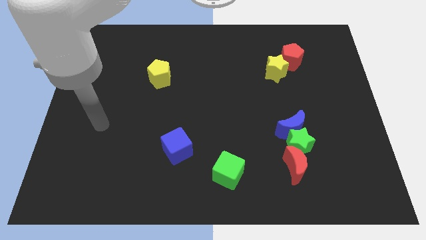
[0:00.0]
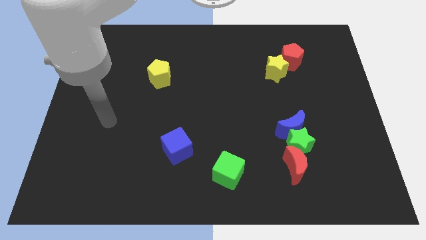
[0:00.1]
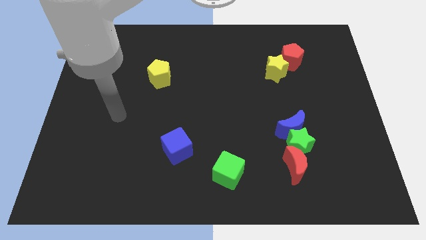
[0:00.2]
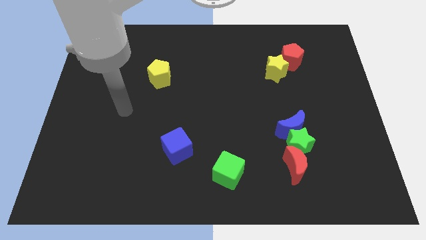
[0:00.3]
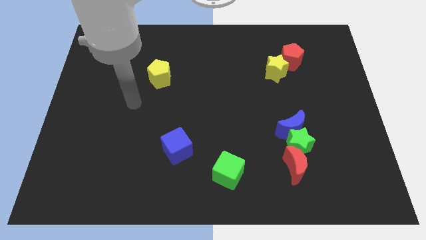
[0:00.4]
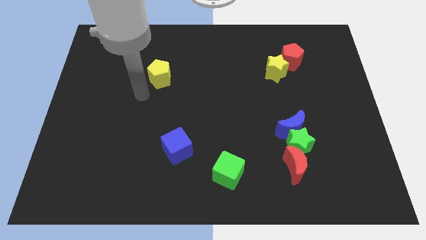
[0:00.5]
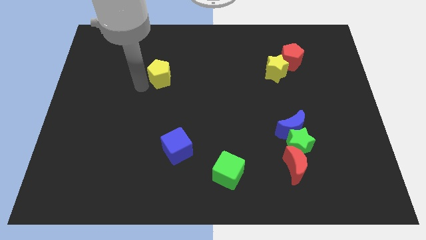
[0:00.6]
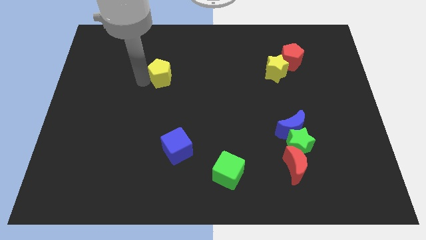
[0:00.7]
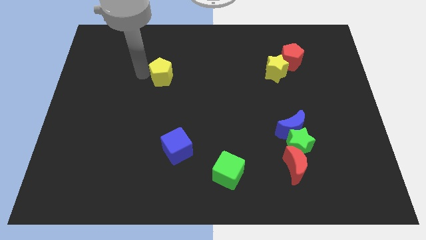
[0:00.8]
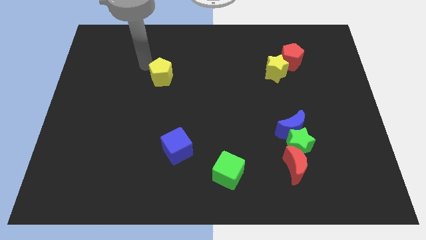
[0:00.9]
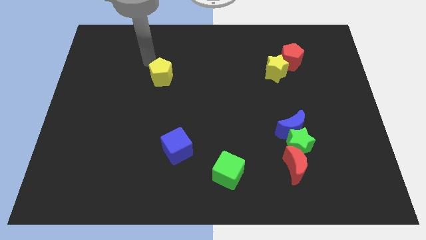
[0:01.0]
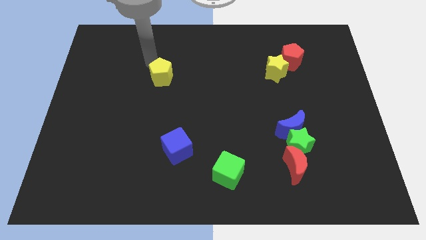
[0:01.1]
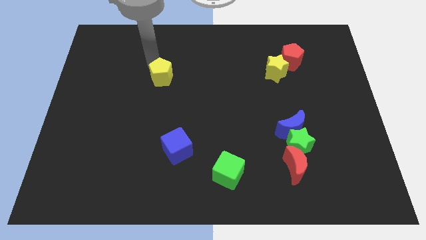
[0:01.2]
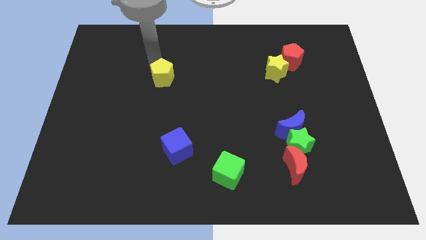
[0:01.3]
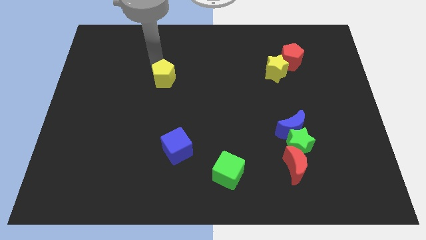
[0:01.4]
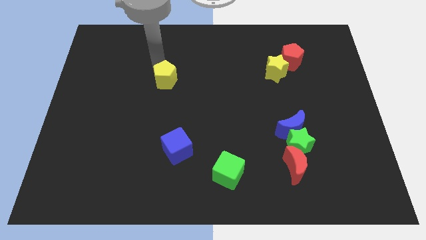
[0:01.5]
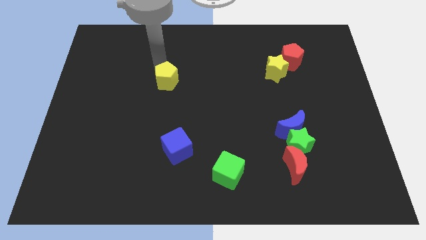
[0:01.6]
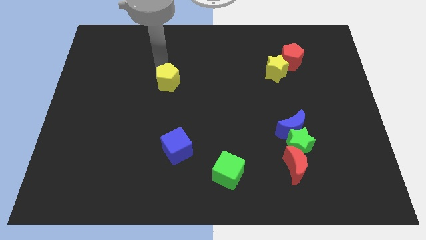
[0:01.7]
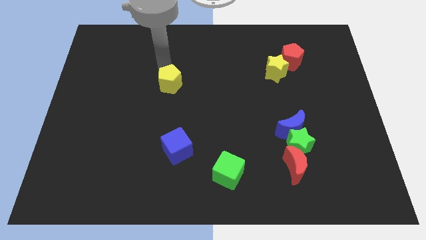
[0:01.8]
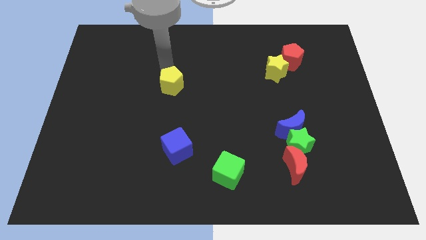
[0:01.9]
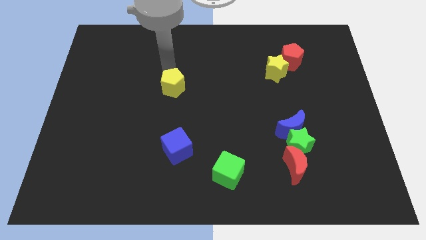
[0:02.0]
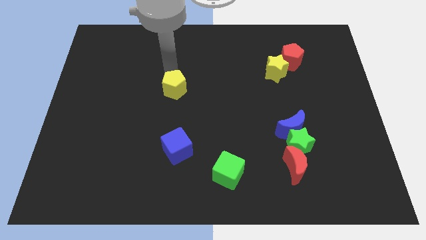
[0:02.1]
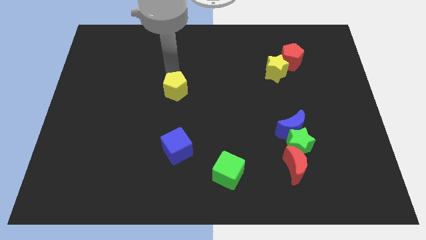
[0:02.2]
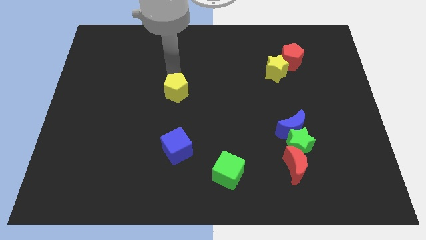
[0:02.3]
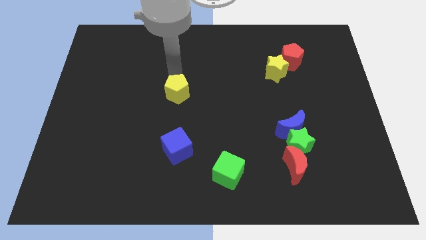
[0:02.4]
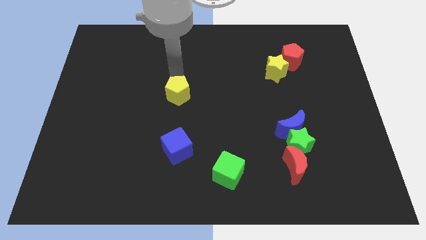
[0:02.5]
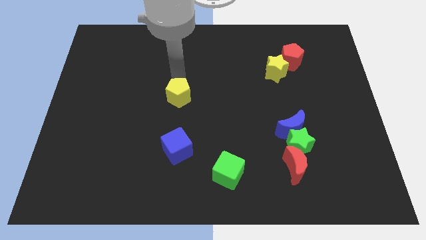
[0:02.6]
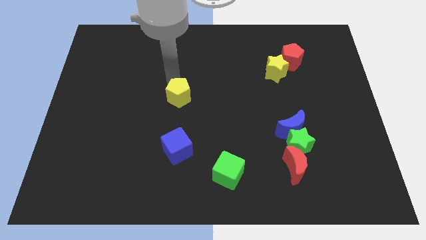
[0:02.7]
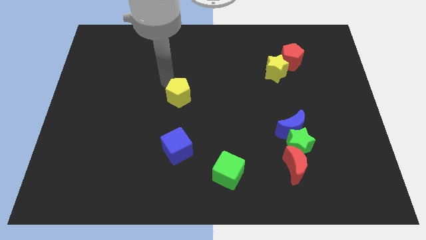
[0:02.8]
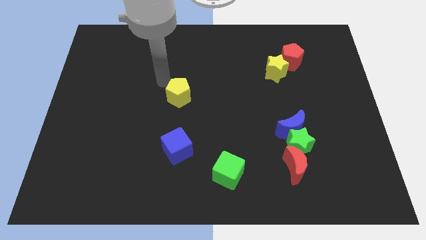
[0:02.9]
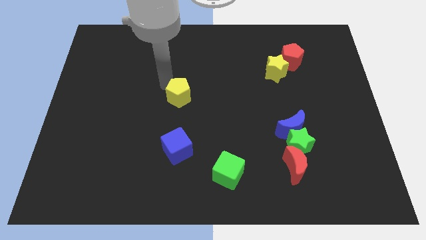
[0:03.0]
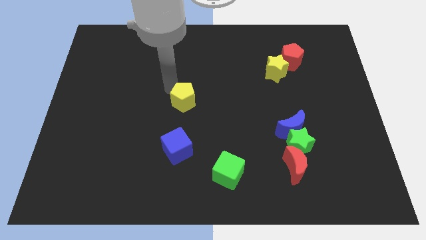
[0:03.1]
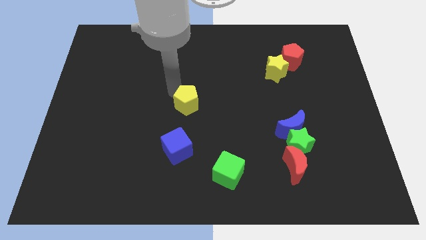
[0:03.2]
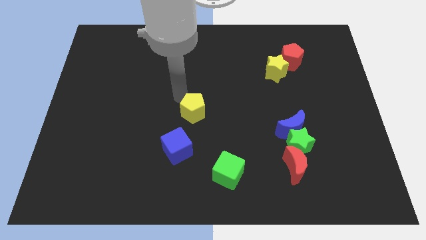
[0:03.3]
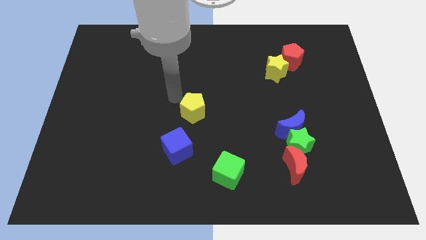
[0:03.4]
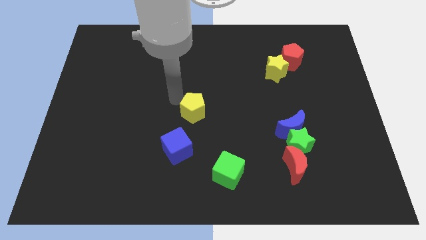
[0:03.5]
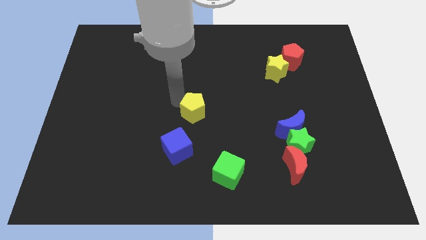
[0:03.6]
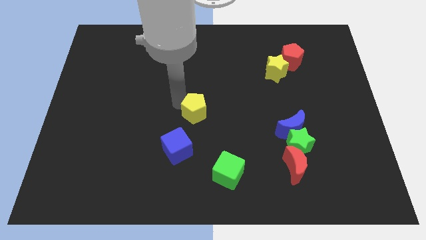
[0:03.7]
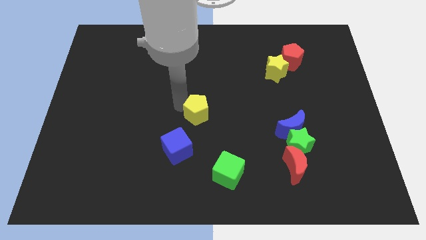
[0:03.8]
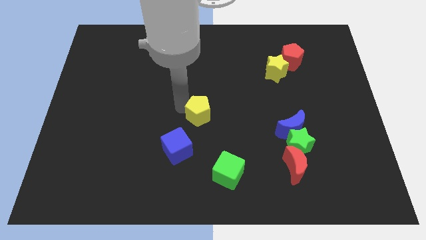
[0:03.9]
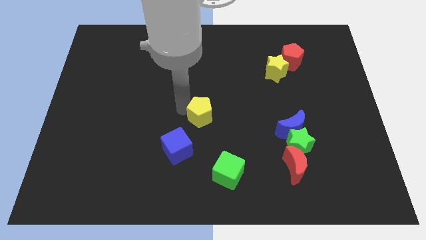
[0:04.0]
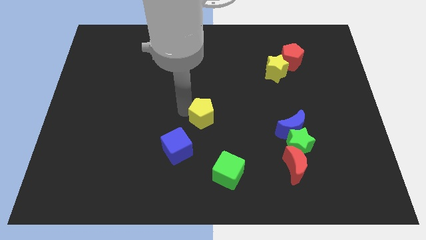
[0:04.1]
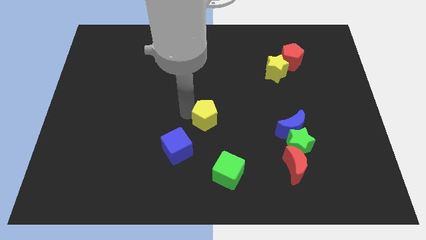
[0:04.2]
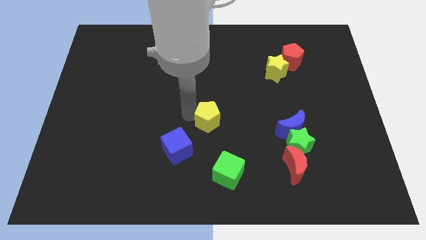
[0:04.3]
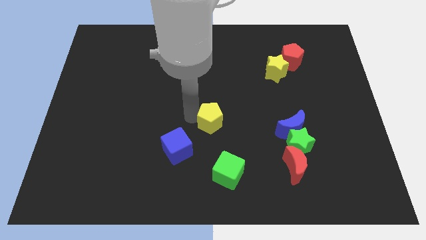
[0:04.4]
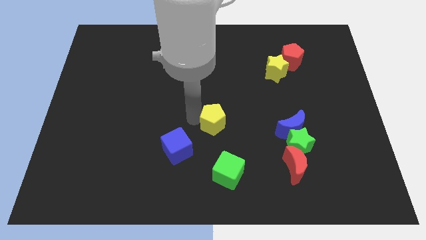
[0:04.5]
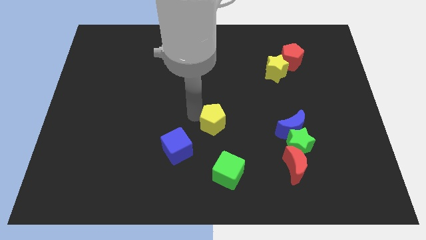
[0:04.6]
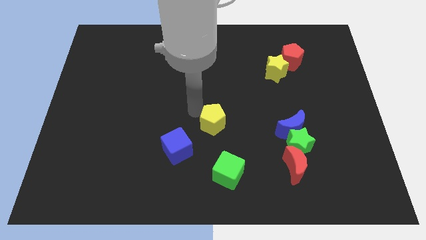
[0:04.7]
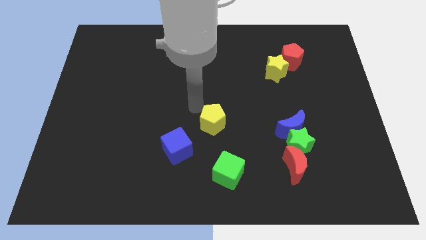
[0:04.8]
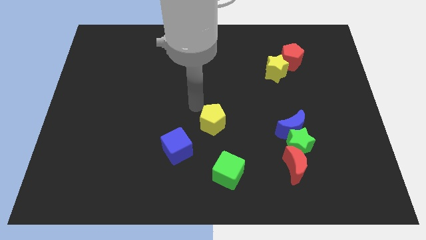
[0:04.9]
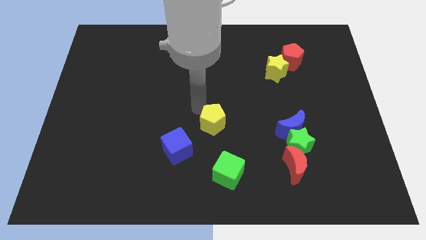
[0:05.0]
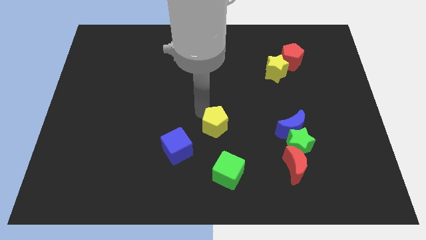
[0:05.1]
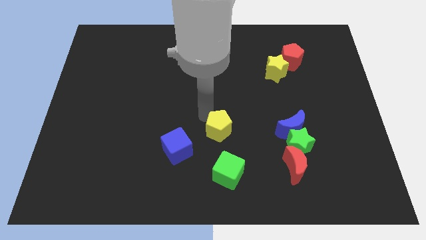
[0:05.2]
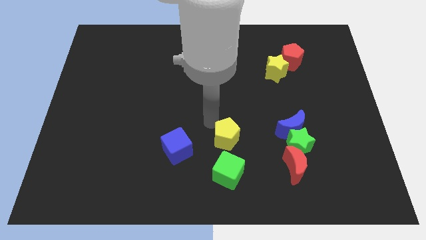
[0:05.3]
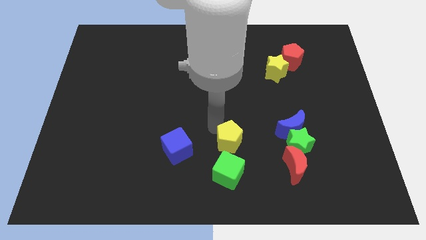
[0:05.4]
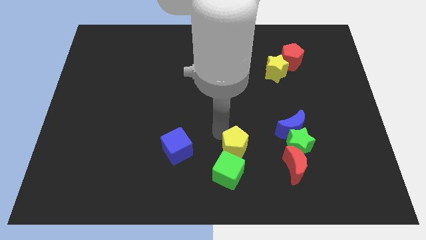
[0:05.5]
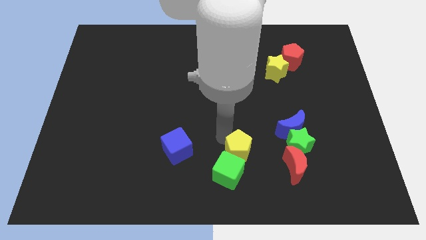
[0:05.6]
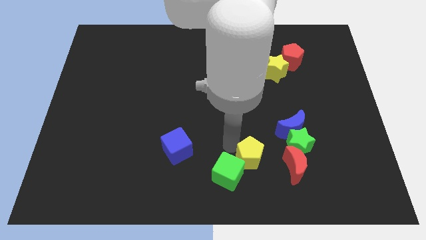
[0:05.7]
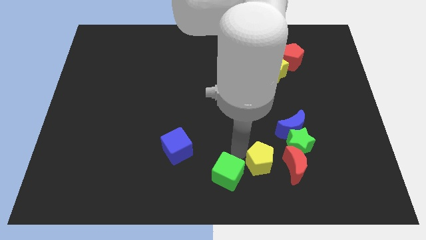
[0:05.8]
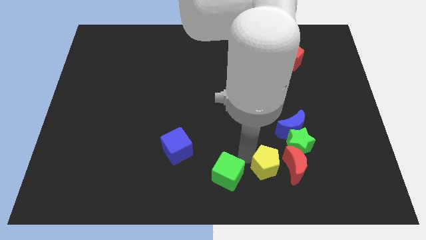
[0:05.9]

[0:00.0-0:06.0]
slide the yellow pentagon towards the red moon
